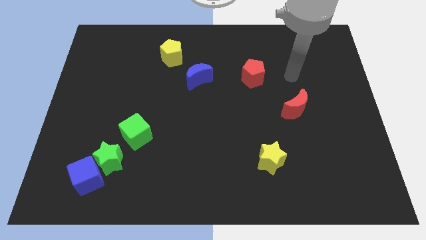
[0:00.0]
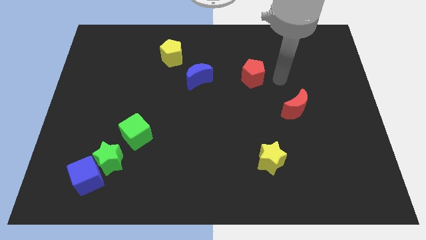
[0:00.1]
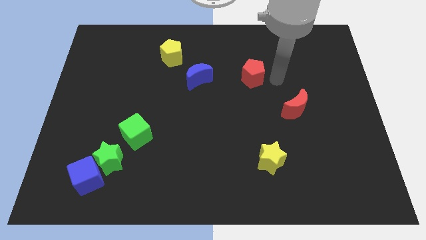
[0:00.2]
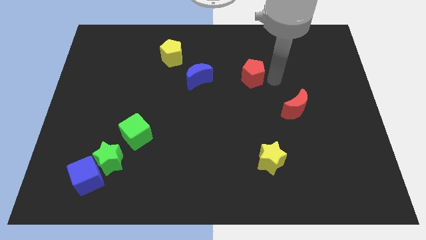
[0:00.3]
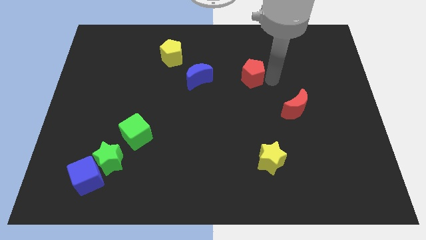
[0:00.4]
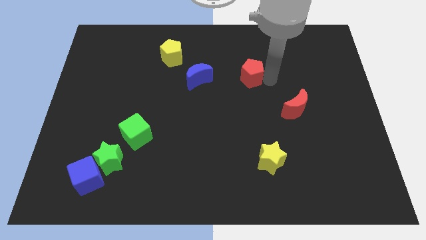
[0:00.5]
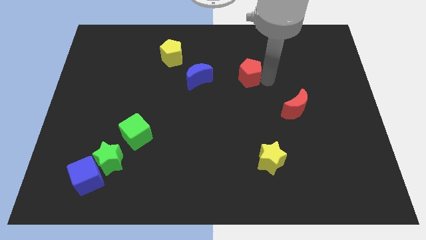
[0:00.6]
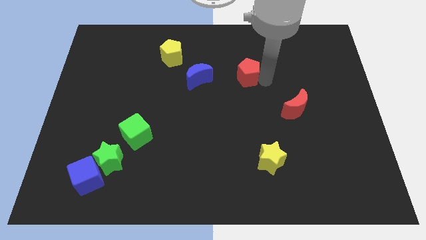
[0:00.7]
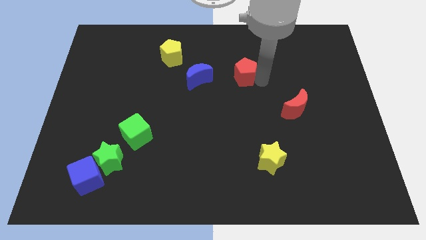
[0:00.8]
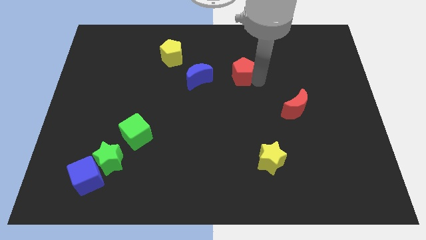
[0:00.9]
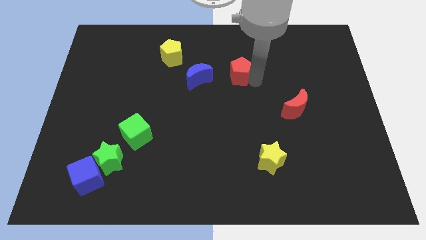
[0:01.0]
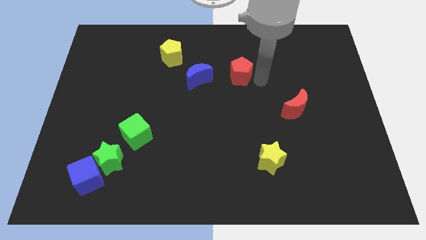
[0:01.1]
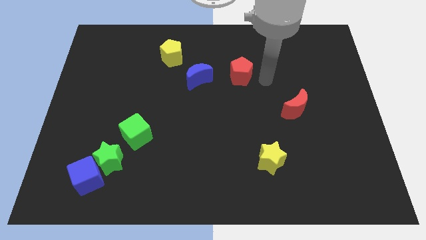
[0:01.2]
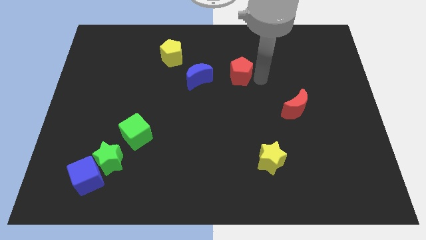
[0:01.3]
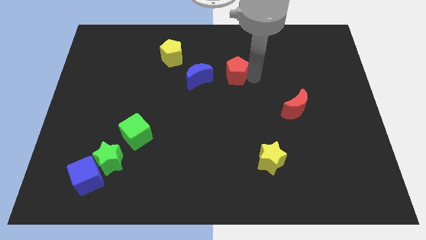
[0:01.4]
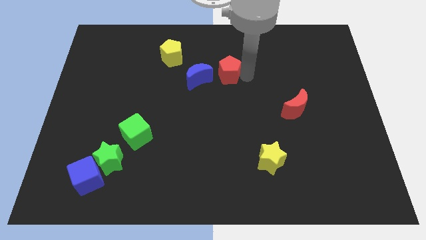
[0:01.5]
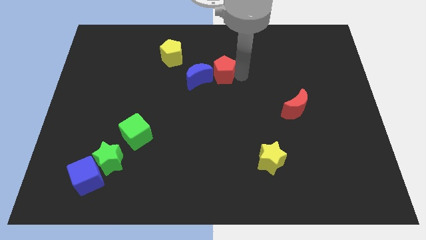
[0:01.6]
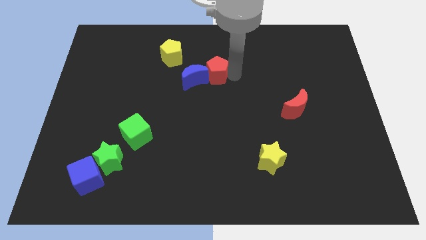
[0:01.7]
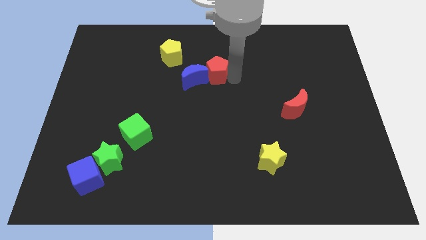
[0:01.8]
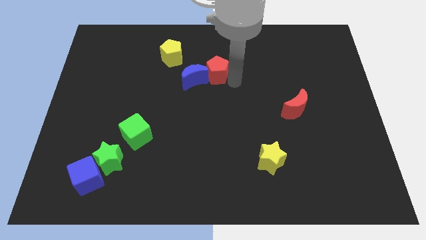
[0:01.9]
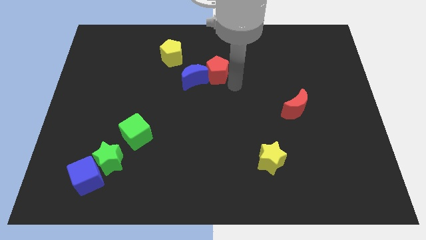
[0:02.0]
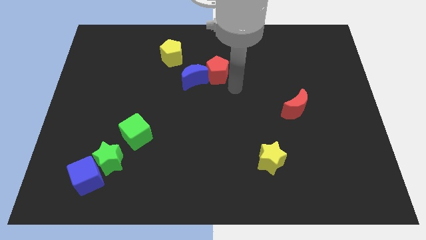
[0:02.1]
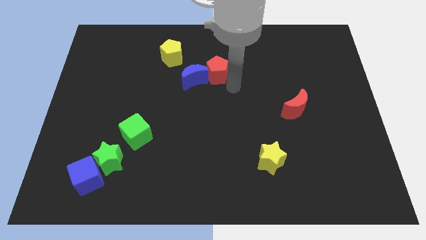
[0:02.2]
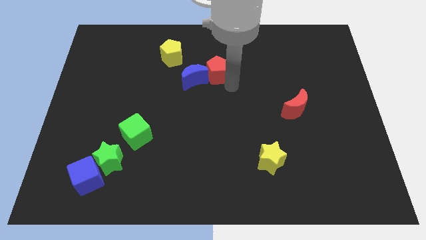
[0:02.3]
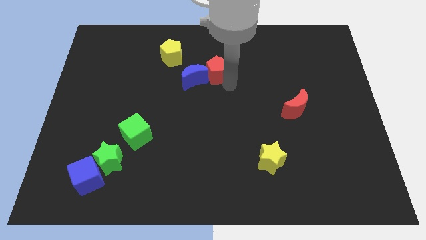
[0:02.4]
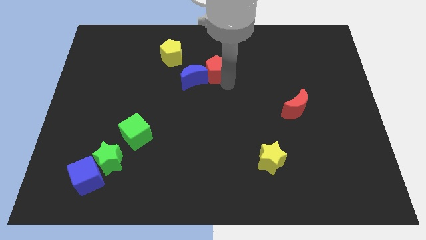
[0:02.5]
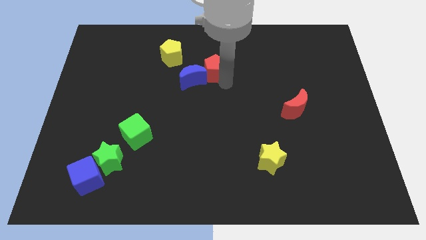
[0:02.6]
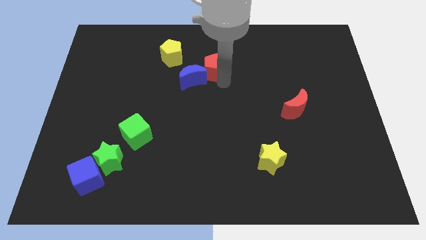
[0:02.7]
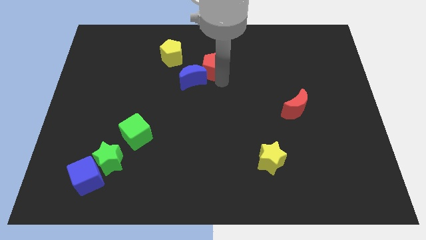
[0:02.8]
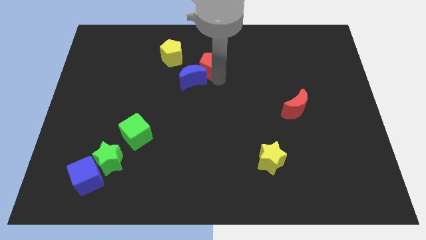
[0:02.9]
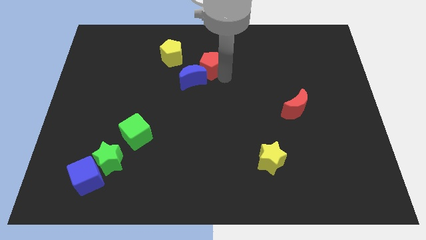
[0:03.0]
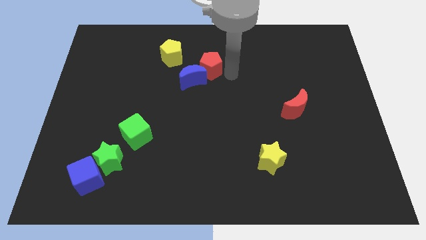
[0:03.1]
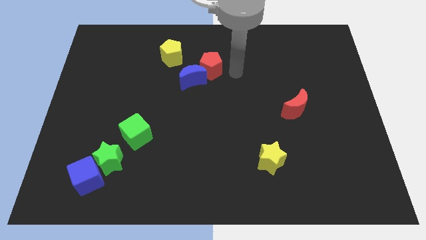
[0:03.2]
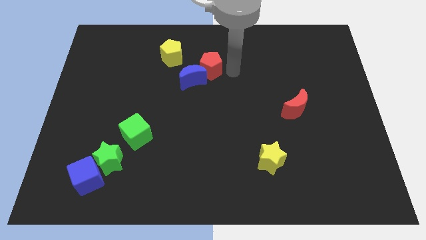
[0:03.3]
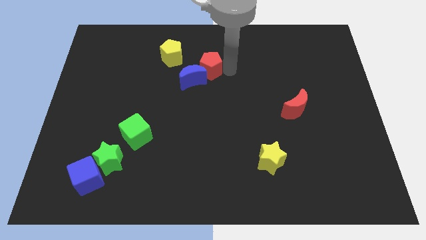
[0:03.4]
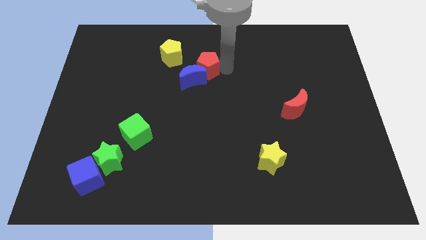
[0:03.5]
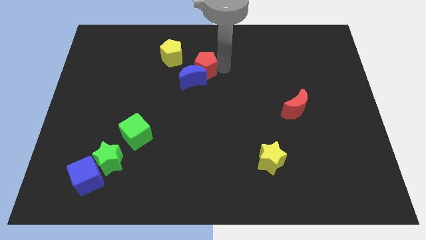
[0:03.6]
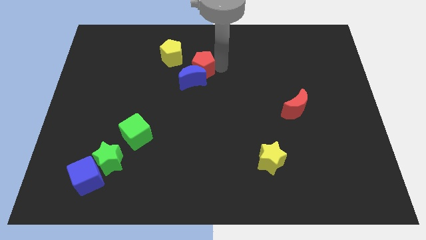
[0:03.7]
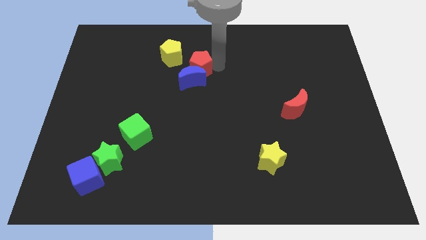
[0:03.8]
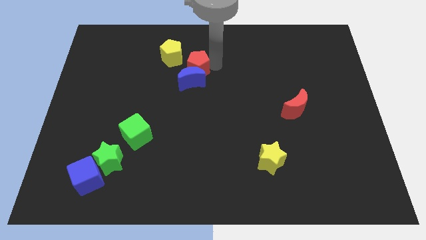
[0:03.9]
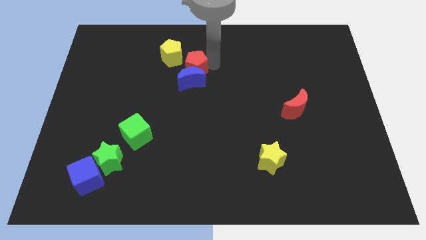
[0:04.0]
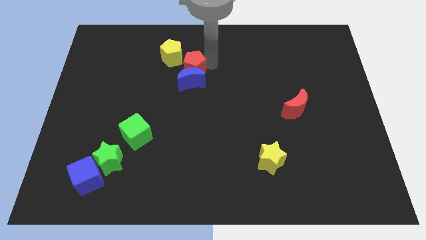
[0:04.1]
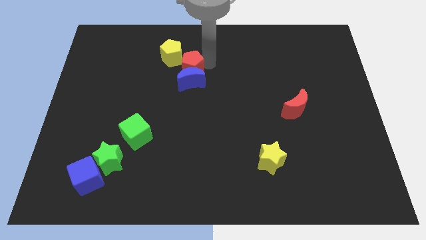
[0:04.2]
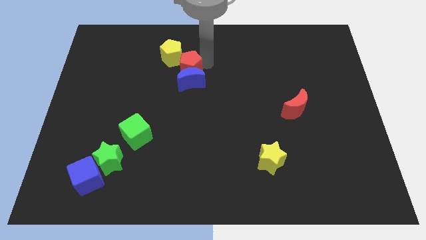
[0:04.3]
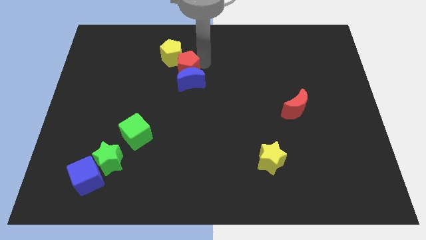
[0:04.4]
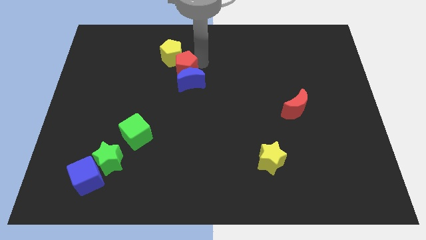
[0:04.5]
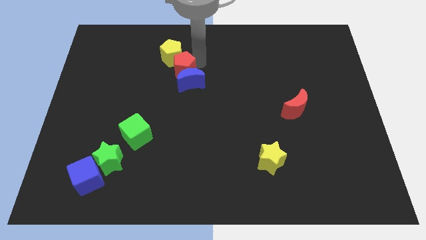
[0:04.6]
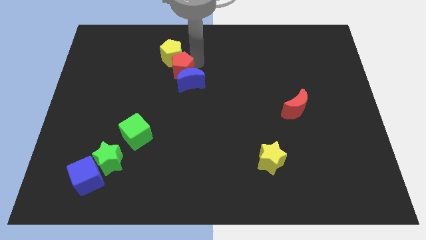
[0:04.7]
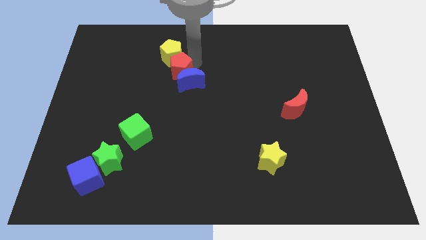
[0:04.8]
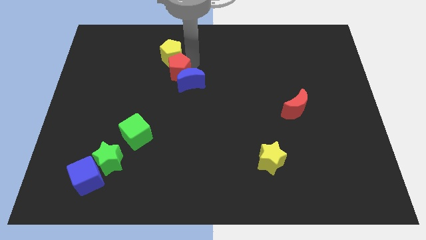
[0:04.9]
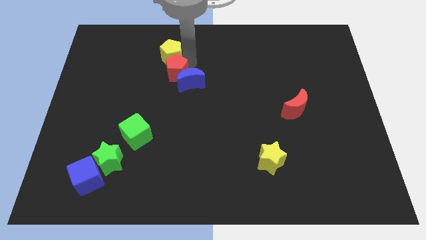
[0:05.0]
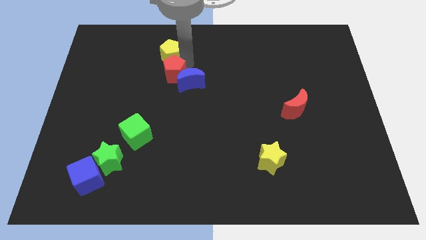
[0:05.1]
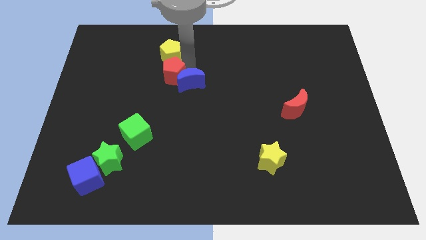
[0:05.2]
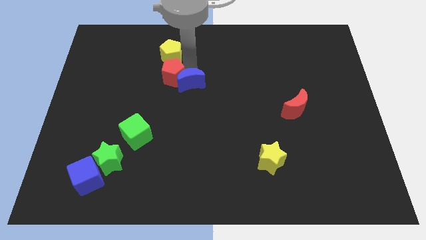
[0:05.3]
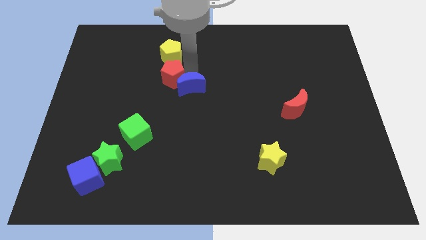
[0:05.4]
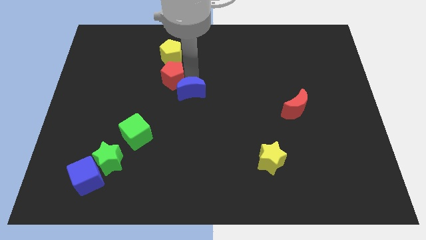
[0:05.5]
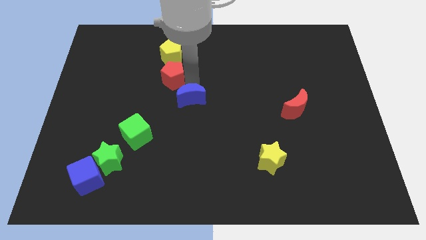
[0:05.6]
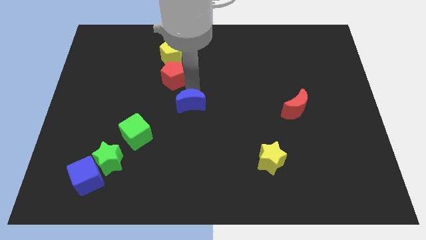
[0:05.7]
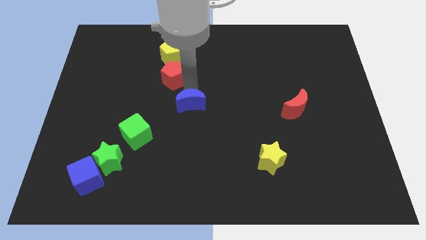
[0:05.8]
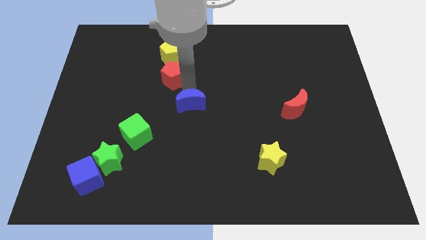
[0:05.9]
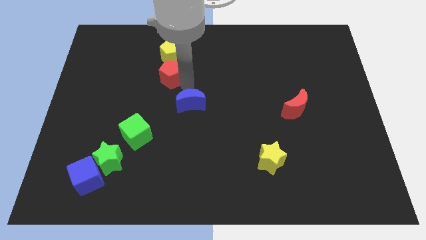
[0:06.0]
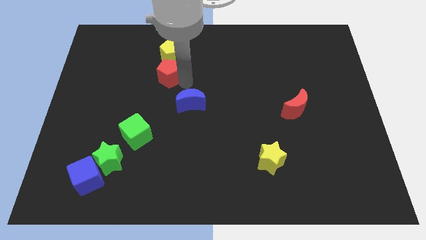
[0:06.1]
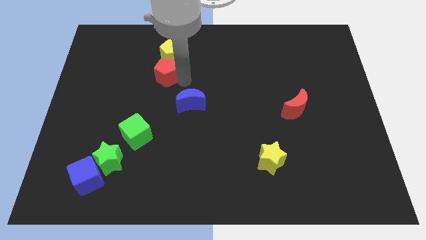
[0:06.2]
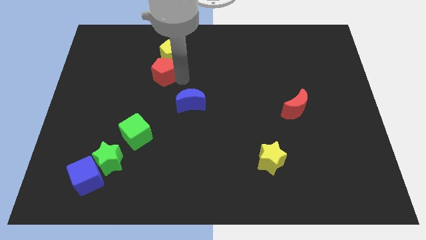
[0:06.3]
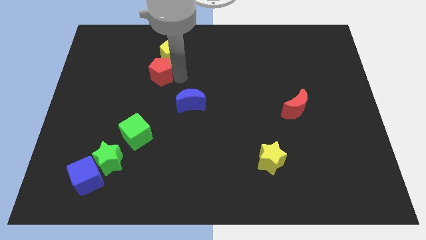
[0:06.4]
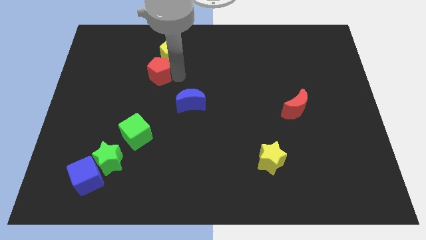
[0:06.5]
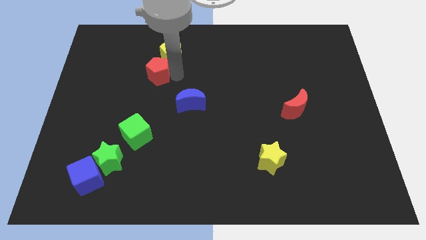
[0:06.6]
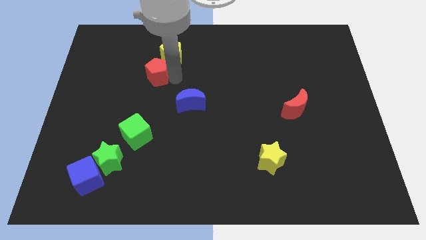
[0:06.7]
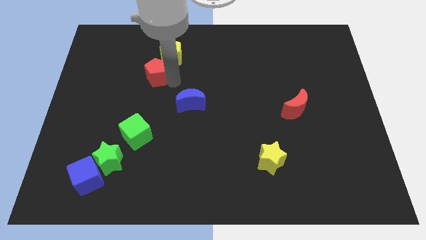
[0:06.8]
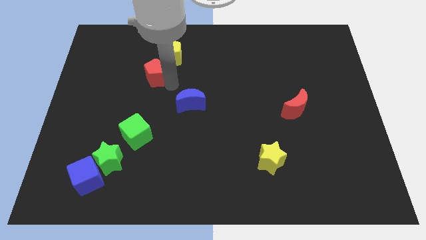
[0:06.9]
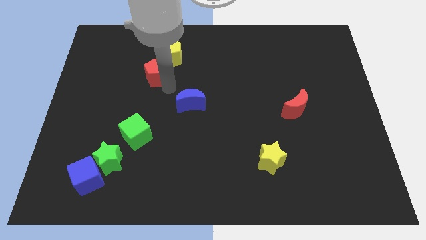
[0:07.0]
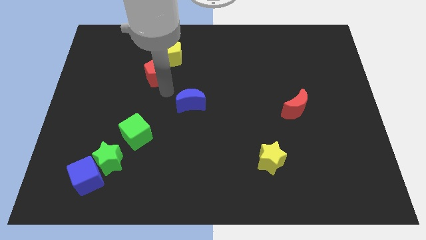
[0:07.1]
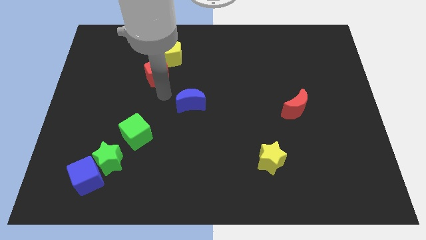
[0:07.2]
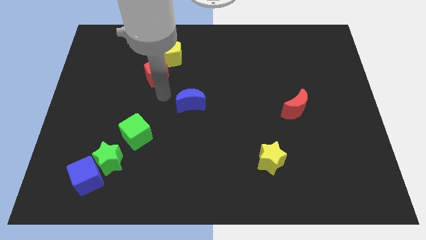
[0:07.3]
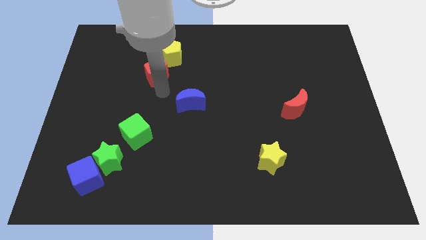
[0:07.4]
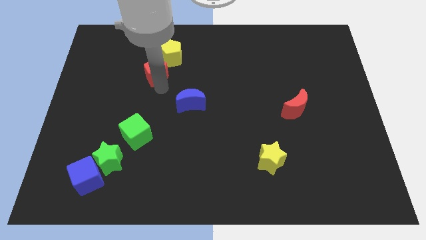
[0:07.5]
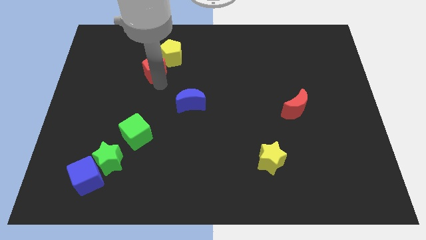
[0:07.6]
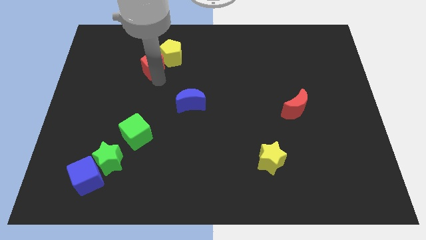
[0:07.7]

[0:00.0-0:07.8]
put the red pentagon to the left side of the yellow pentagon

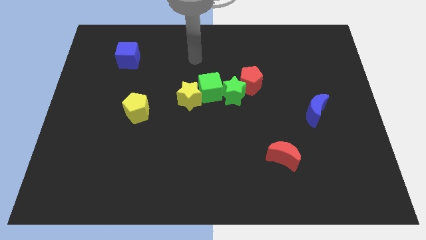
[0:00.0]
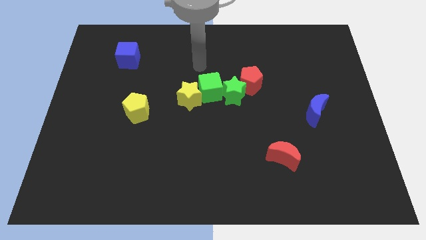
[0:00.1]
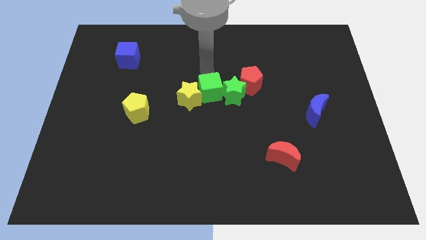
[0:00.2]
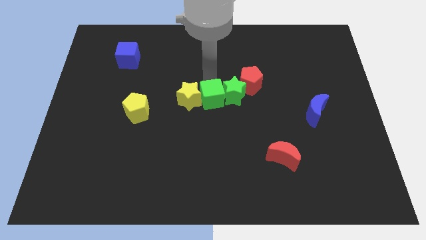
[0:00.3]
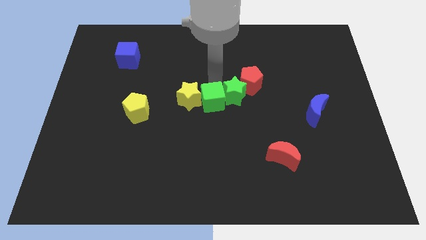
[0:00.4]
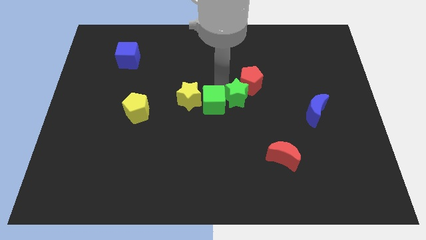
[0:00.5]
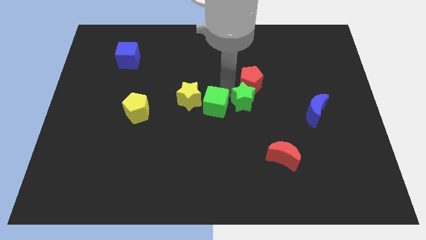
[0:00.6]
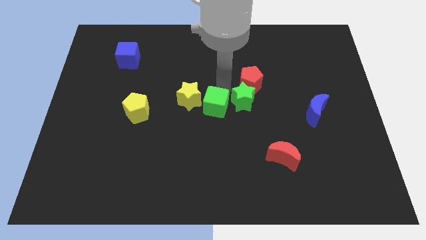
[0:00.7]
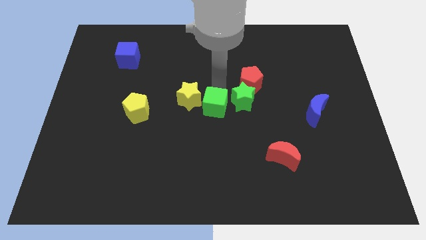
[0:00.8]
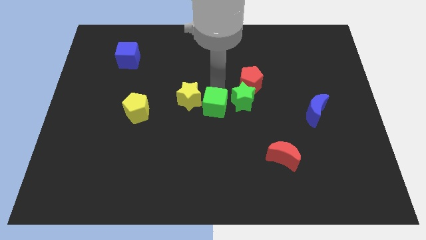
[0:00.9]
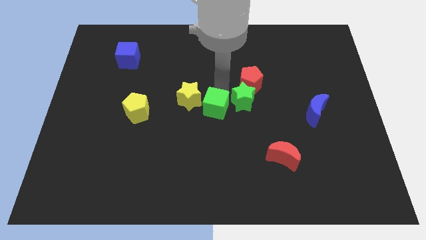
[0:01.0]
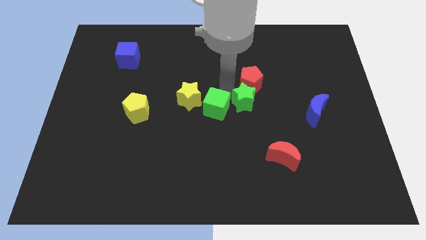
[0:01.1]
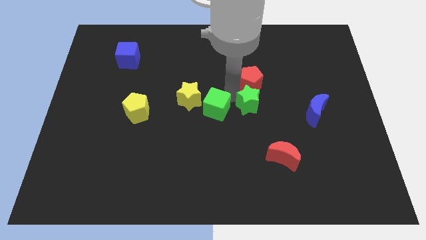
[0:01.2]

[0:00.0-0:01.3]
put the green star to the left side of the blue moon
